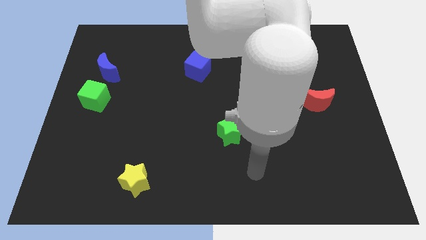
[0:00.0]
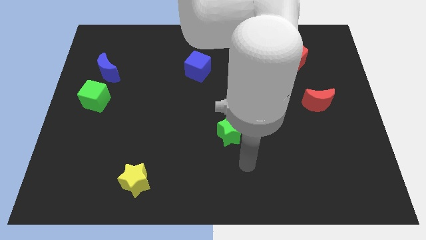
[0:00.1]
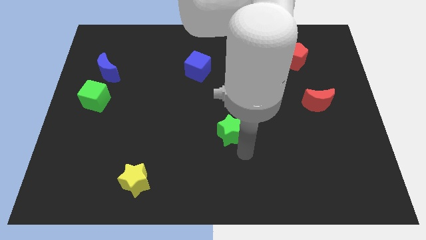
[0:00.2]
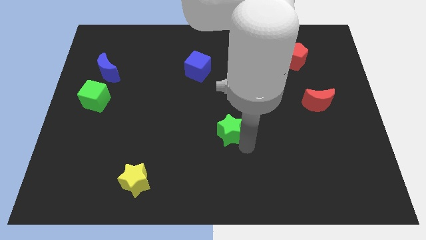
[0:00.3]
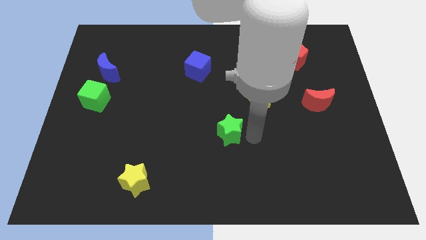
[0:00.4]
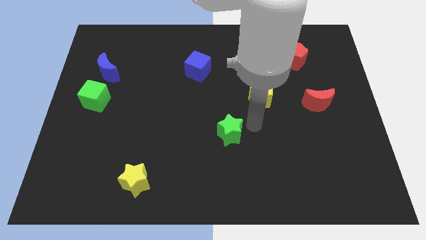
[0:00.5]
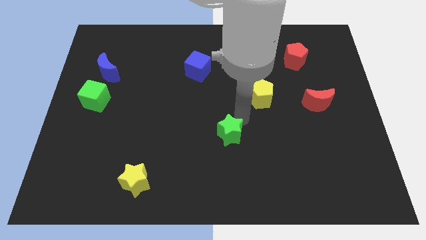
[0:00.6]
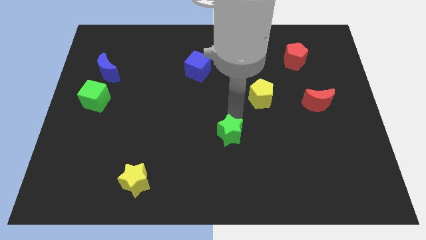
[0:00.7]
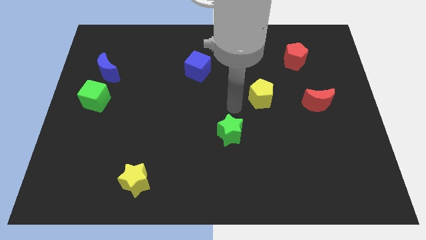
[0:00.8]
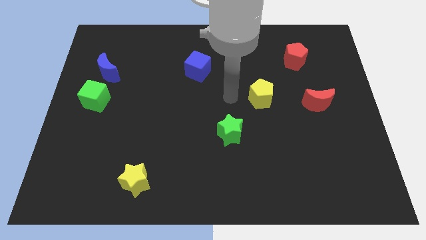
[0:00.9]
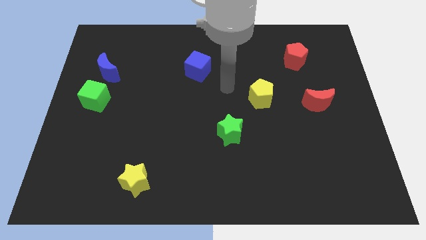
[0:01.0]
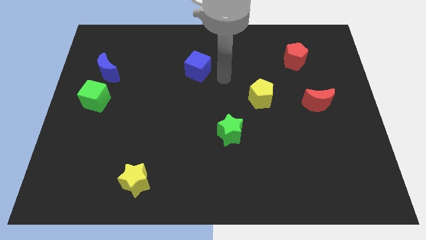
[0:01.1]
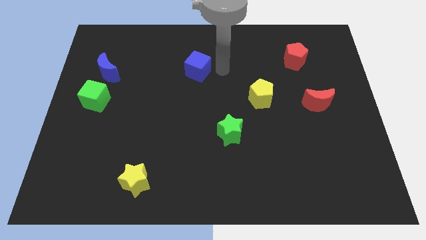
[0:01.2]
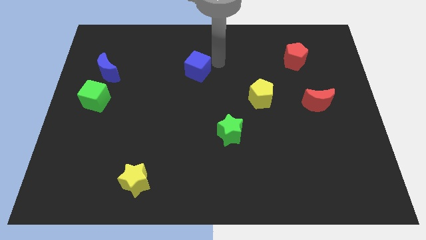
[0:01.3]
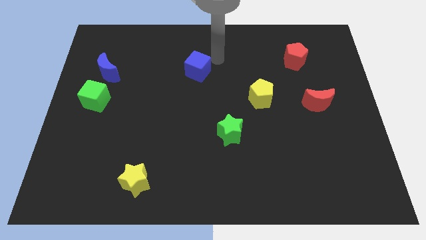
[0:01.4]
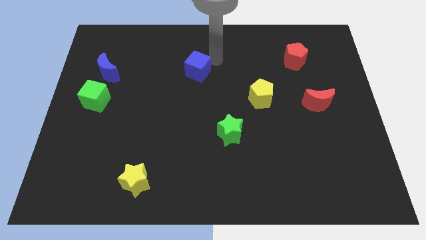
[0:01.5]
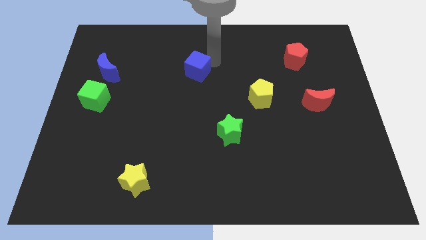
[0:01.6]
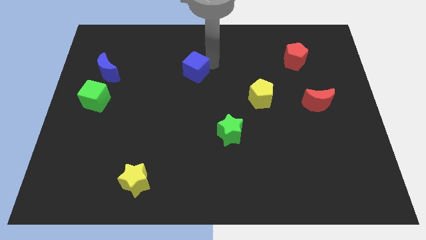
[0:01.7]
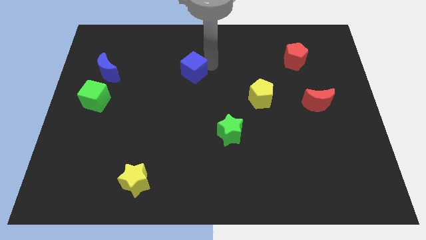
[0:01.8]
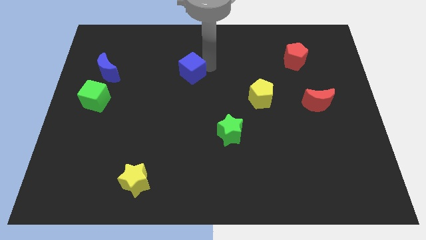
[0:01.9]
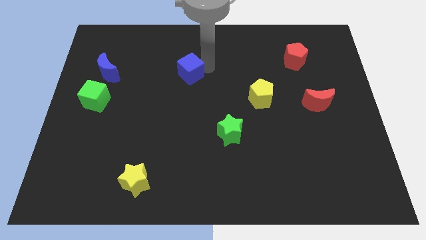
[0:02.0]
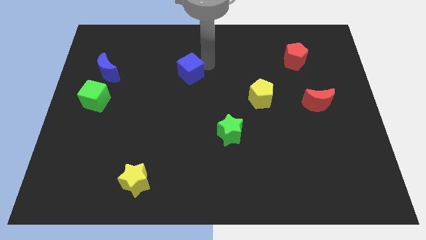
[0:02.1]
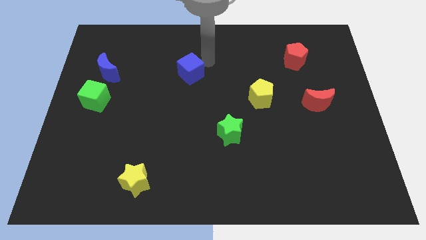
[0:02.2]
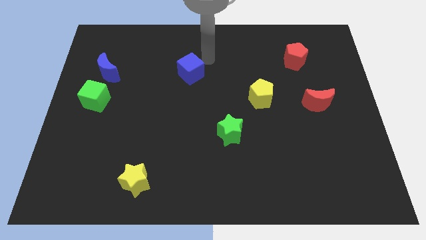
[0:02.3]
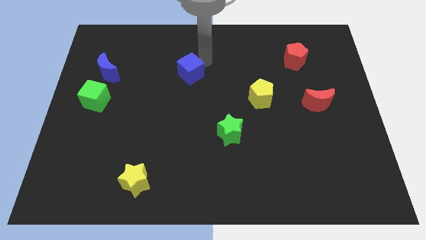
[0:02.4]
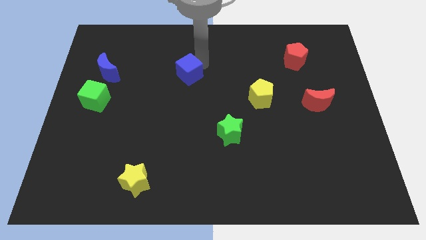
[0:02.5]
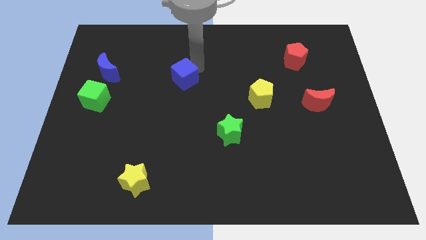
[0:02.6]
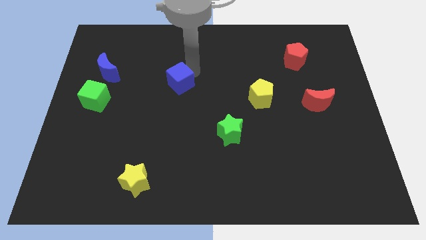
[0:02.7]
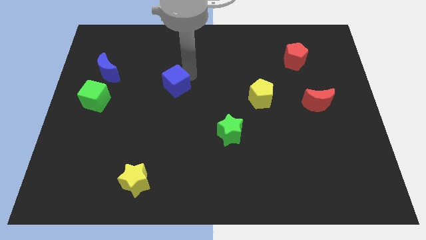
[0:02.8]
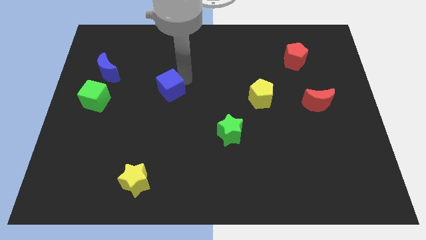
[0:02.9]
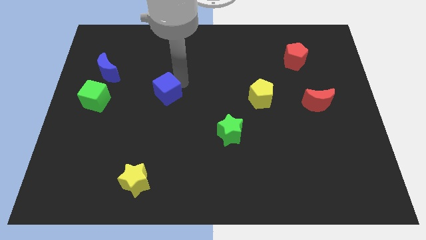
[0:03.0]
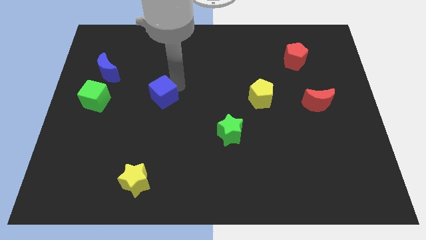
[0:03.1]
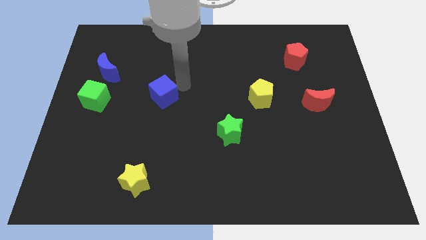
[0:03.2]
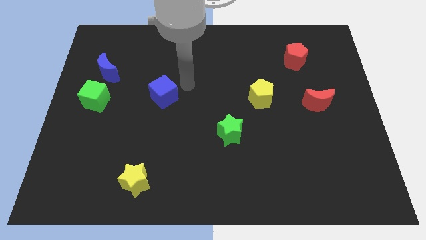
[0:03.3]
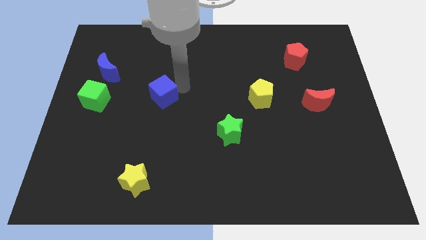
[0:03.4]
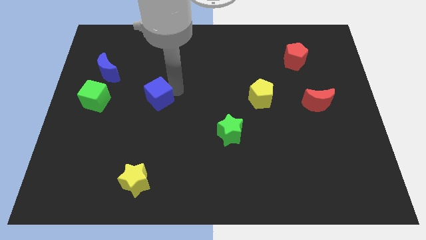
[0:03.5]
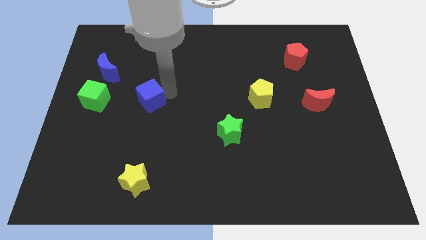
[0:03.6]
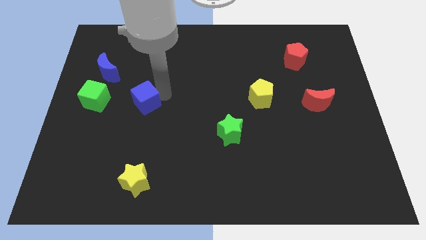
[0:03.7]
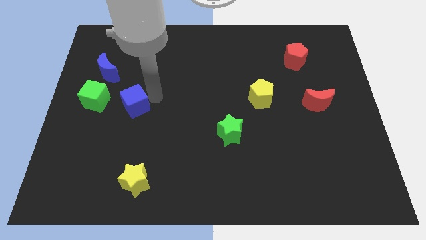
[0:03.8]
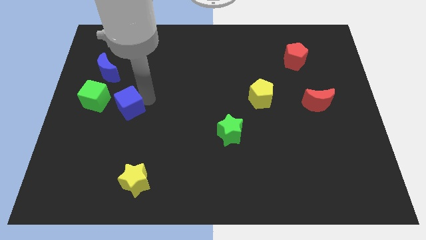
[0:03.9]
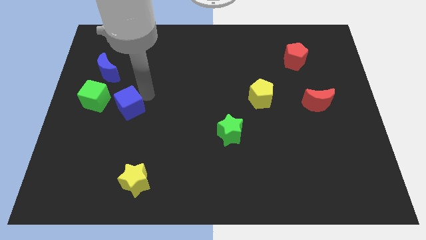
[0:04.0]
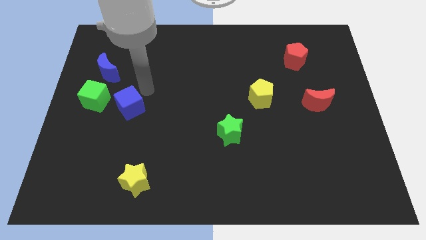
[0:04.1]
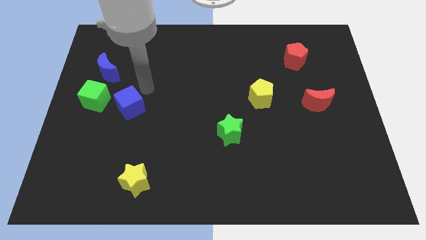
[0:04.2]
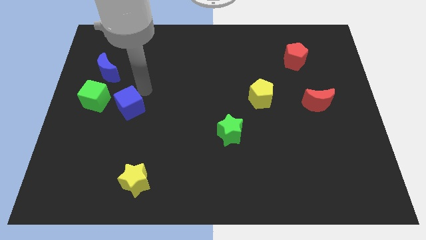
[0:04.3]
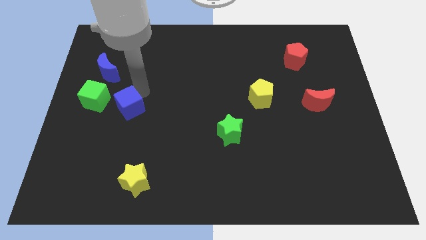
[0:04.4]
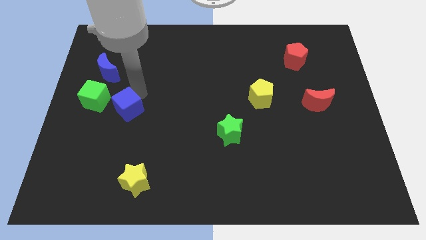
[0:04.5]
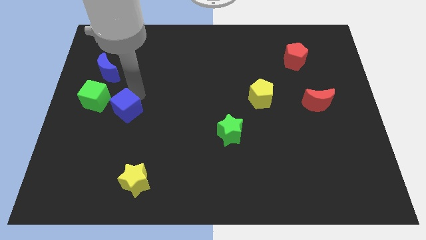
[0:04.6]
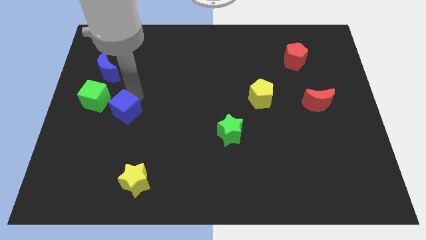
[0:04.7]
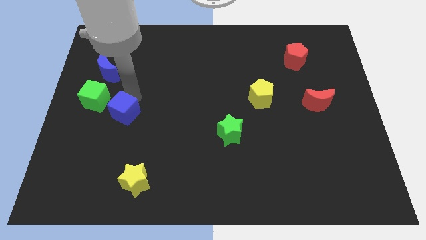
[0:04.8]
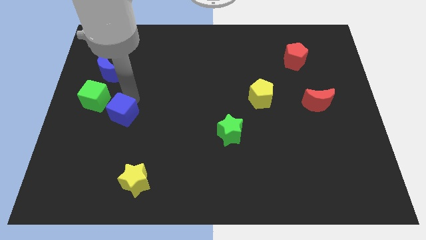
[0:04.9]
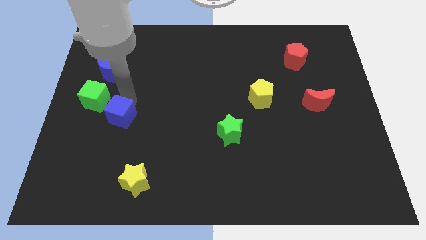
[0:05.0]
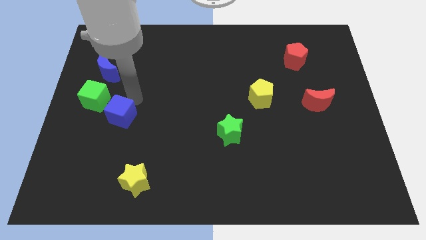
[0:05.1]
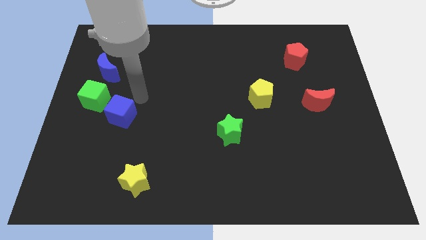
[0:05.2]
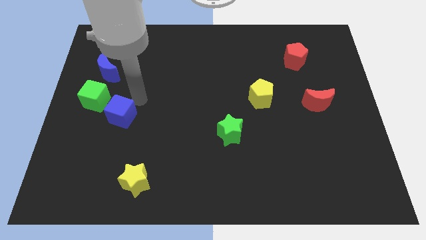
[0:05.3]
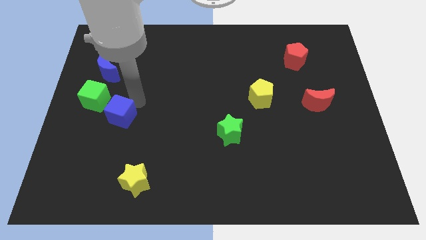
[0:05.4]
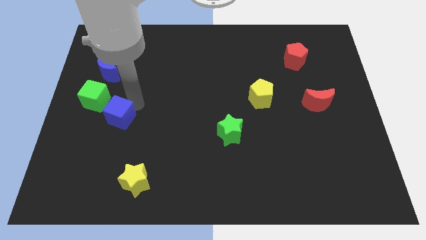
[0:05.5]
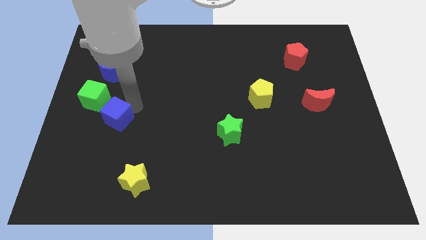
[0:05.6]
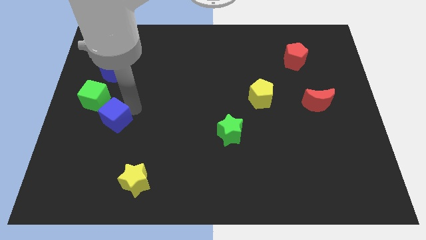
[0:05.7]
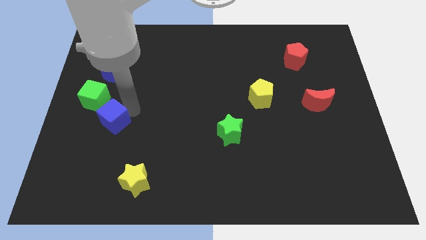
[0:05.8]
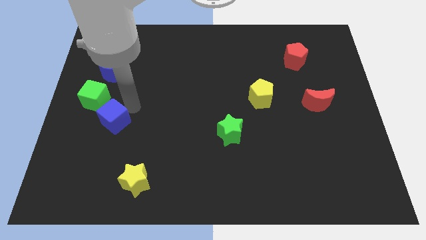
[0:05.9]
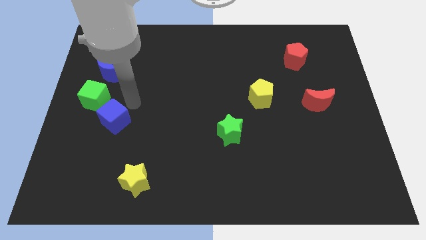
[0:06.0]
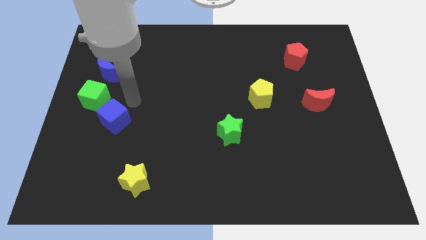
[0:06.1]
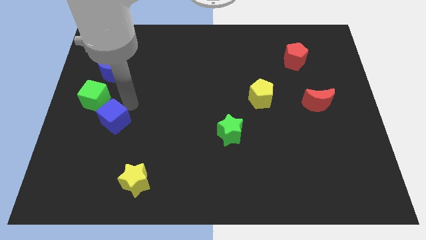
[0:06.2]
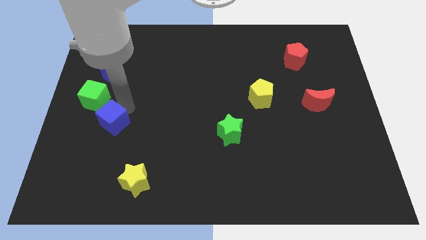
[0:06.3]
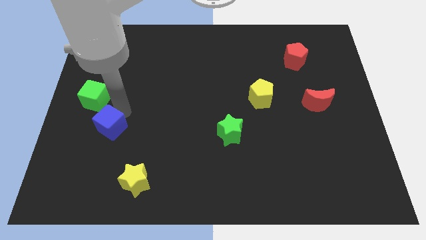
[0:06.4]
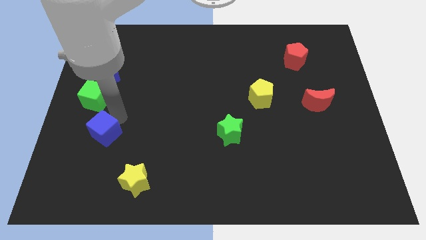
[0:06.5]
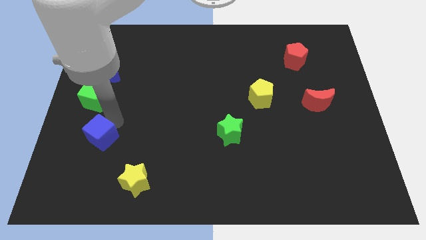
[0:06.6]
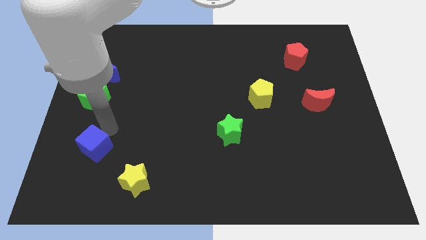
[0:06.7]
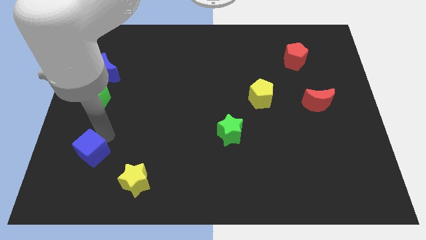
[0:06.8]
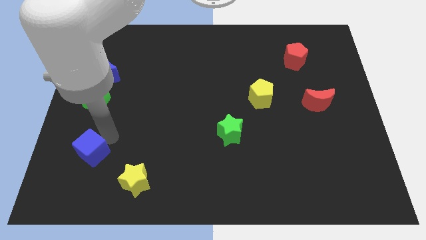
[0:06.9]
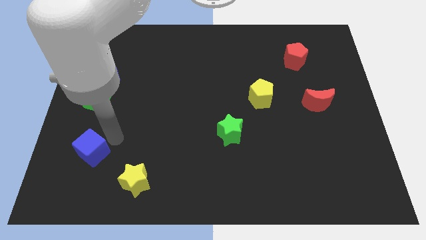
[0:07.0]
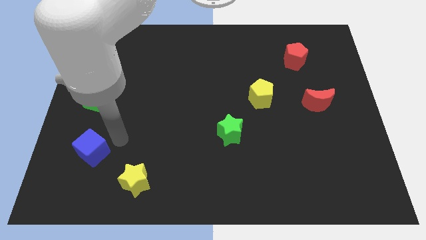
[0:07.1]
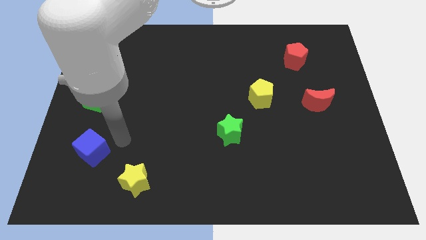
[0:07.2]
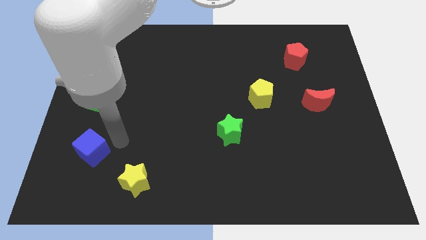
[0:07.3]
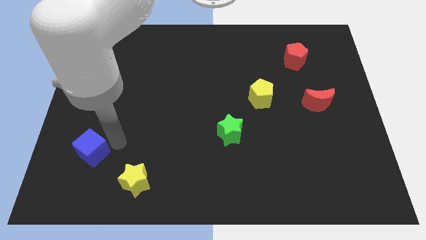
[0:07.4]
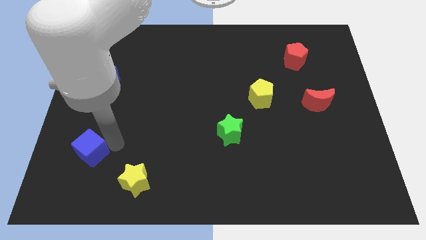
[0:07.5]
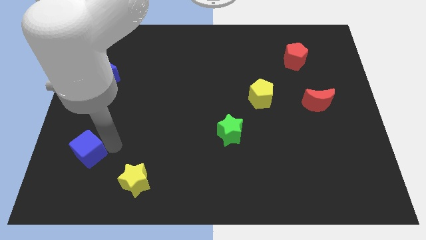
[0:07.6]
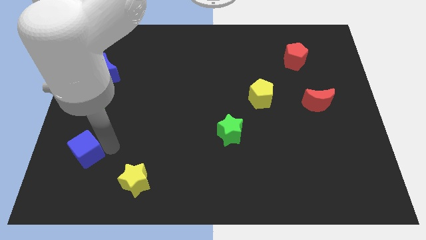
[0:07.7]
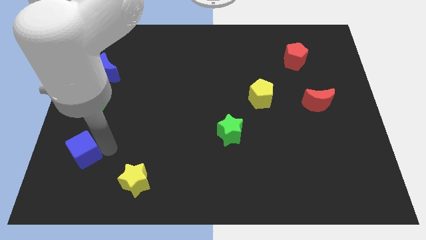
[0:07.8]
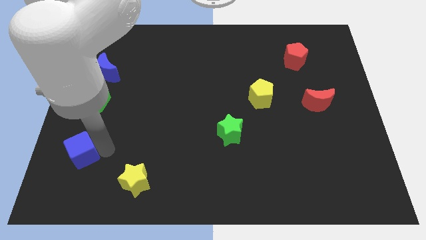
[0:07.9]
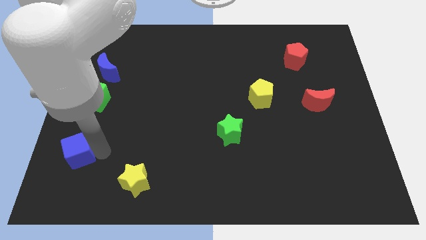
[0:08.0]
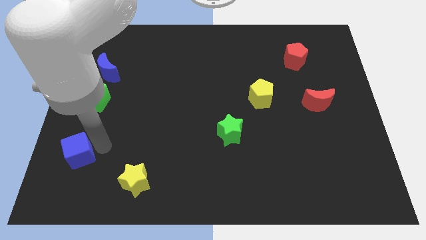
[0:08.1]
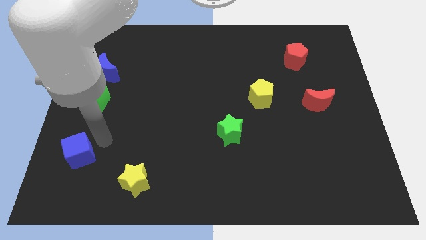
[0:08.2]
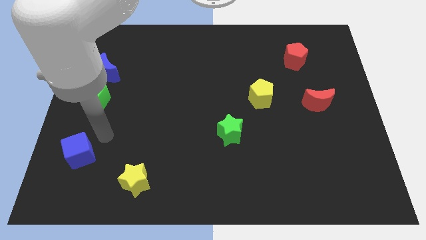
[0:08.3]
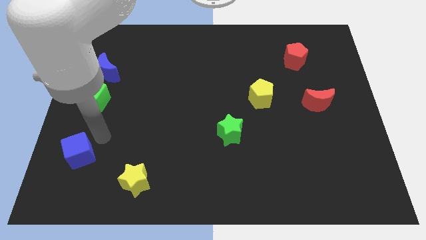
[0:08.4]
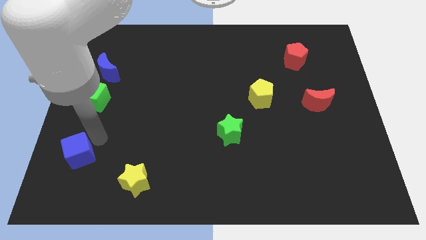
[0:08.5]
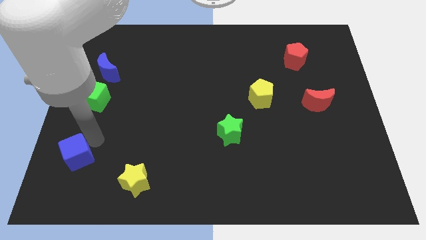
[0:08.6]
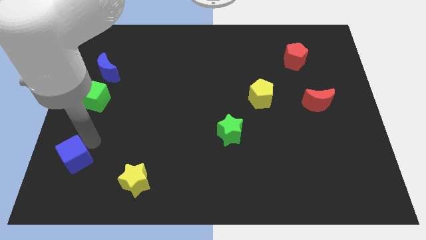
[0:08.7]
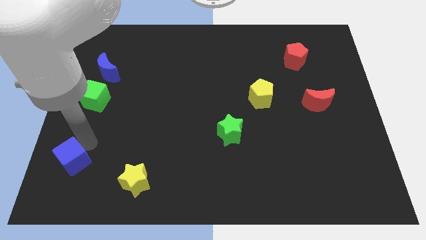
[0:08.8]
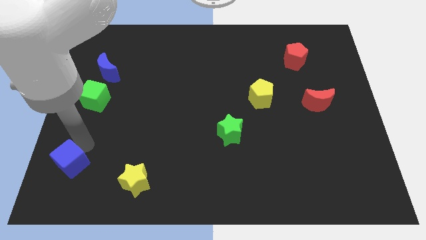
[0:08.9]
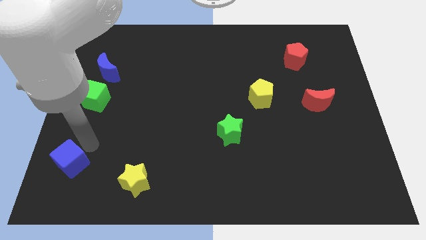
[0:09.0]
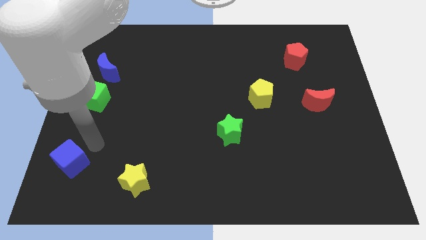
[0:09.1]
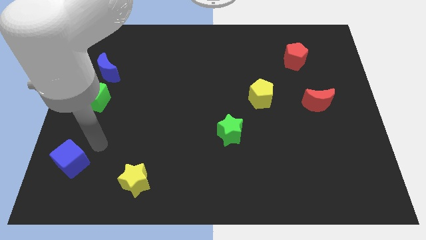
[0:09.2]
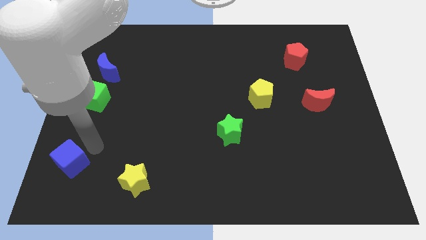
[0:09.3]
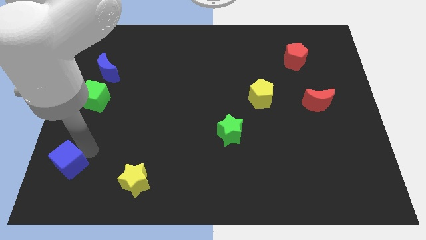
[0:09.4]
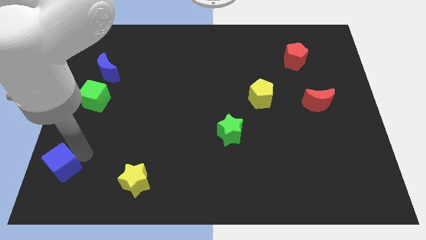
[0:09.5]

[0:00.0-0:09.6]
put the blue cube to the bottom left of the board
